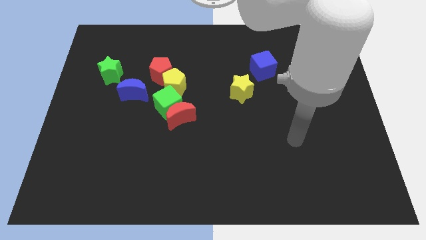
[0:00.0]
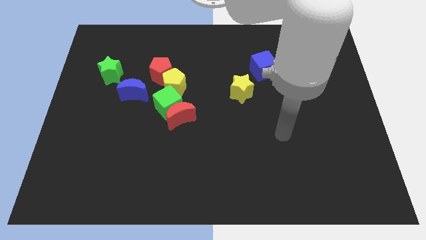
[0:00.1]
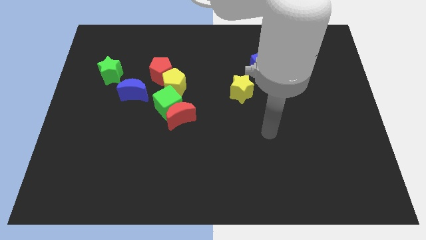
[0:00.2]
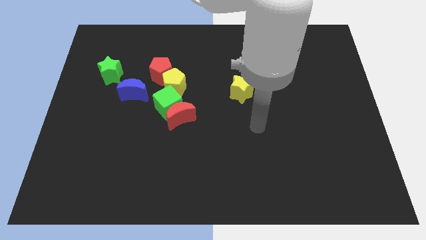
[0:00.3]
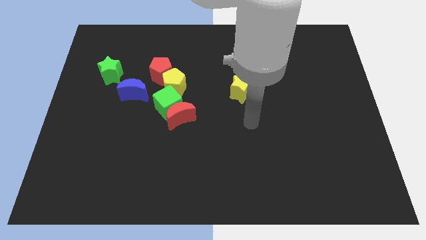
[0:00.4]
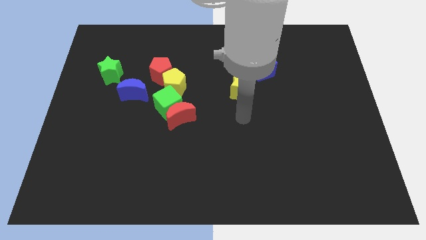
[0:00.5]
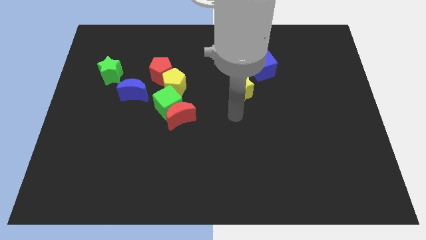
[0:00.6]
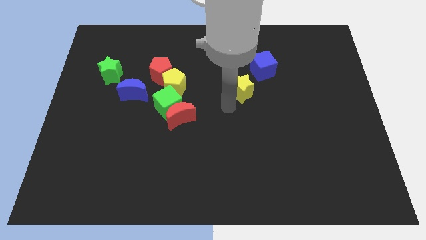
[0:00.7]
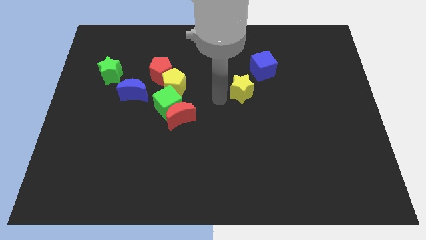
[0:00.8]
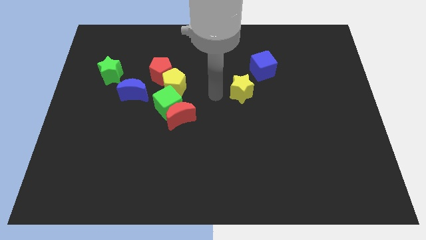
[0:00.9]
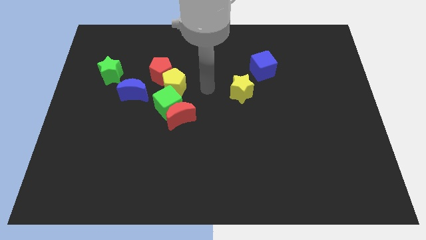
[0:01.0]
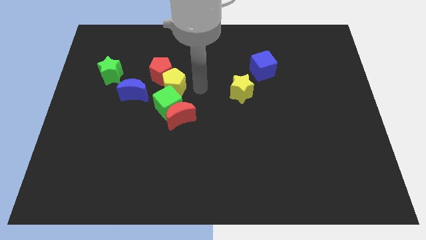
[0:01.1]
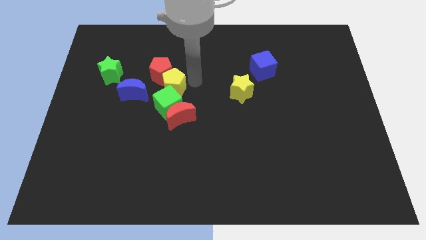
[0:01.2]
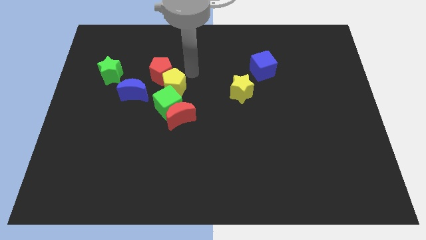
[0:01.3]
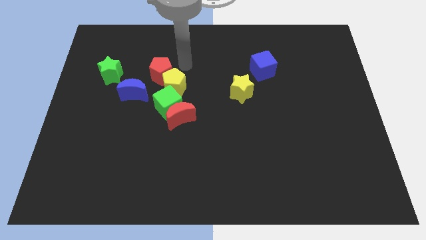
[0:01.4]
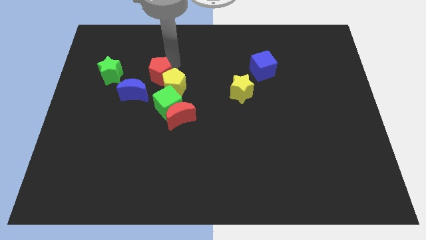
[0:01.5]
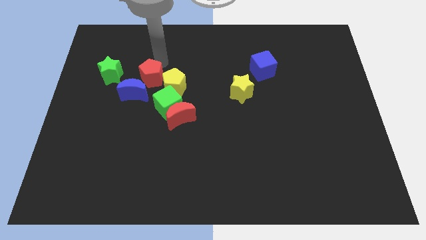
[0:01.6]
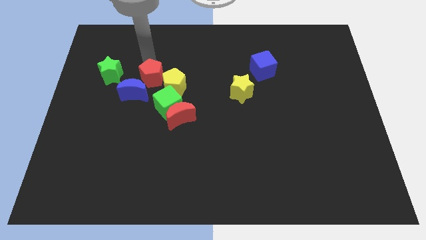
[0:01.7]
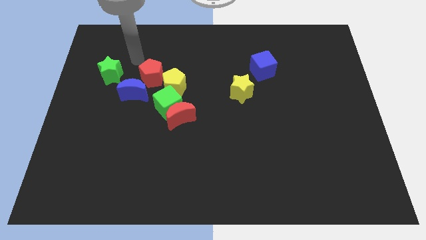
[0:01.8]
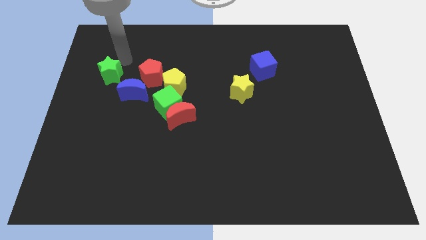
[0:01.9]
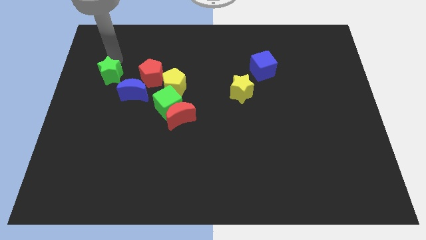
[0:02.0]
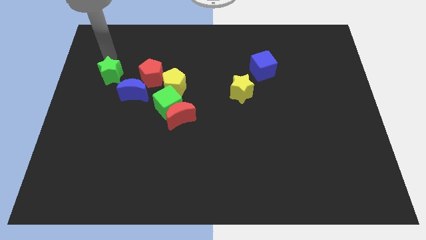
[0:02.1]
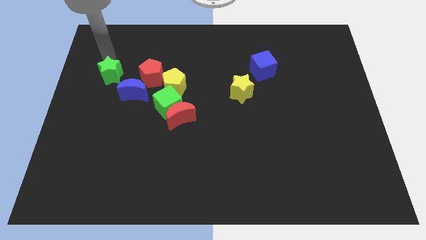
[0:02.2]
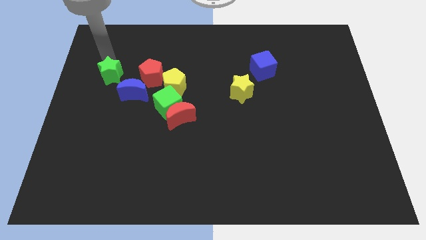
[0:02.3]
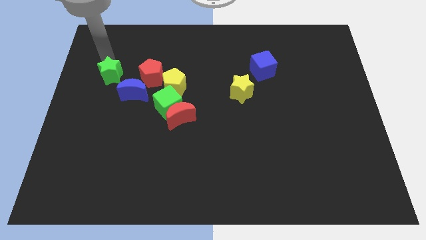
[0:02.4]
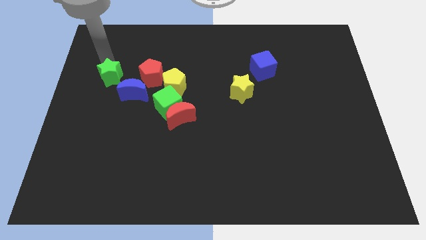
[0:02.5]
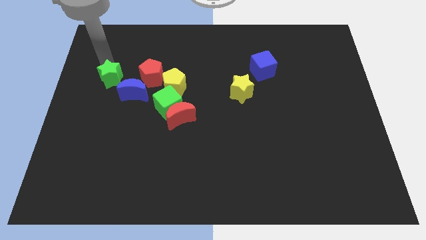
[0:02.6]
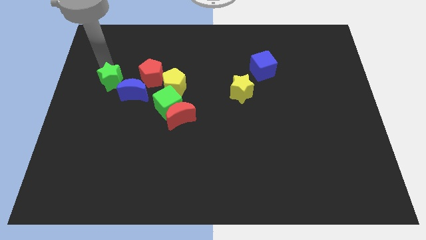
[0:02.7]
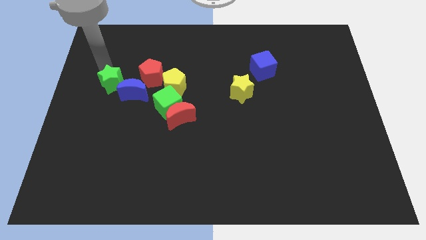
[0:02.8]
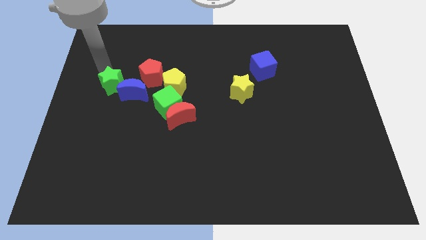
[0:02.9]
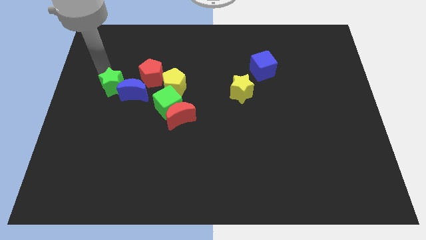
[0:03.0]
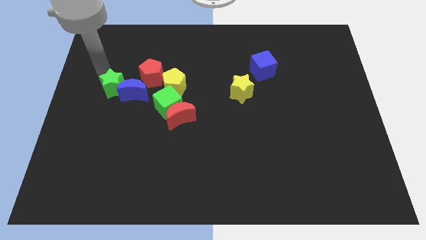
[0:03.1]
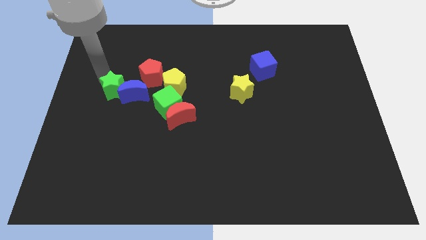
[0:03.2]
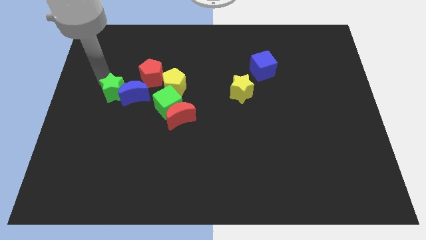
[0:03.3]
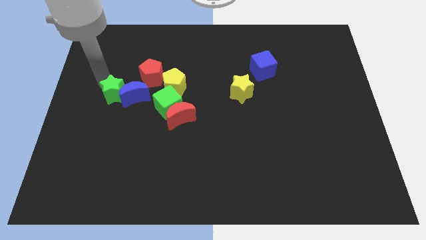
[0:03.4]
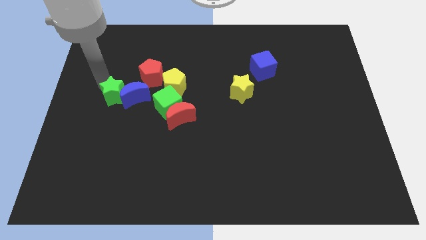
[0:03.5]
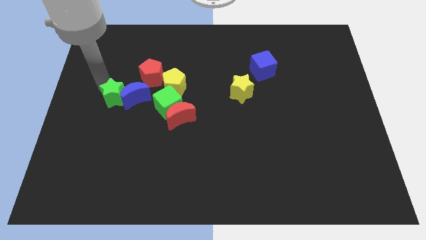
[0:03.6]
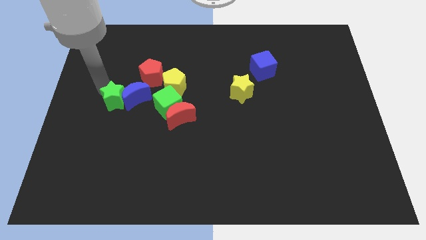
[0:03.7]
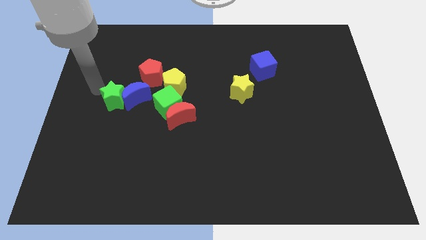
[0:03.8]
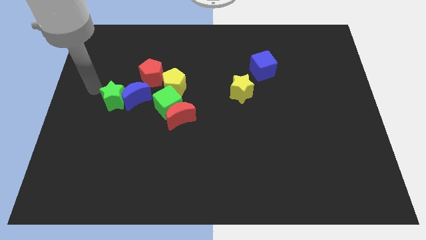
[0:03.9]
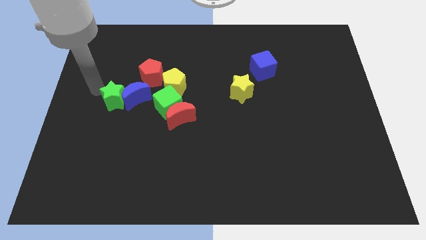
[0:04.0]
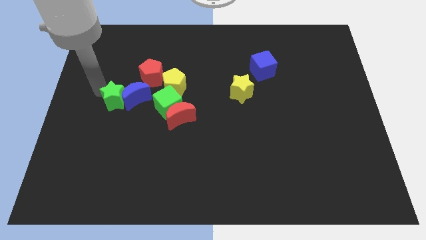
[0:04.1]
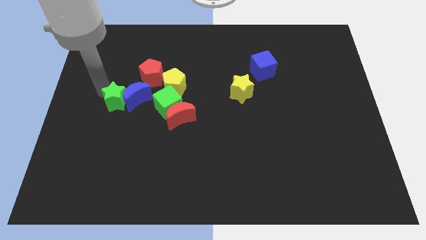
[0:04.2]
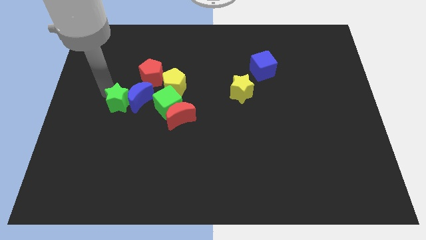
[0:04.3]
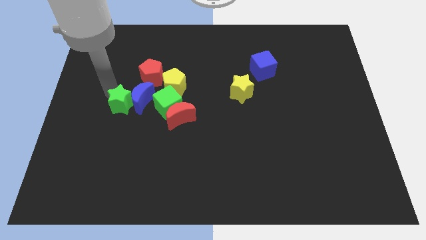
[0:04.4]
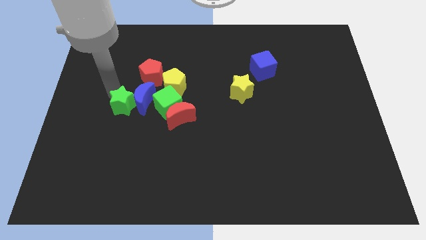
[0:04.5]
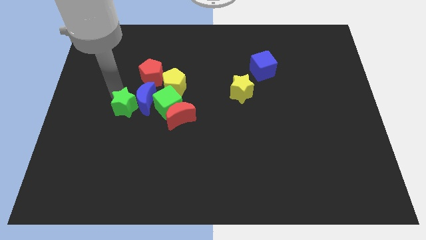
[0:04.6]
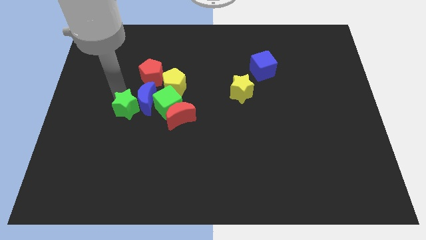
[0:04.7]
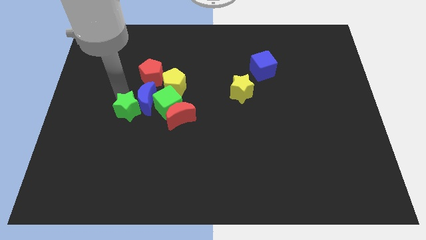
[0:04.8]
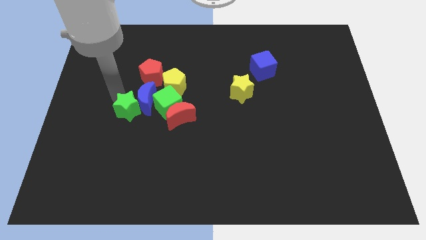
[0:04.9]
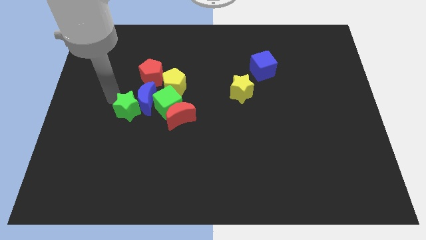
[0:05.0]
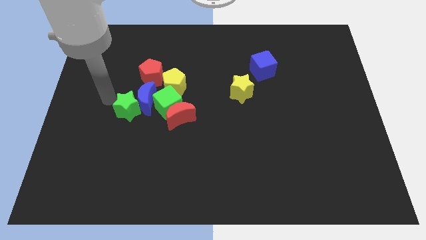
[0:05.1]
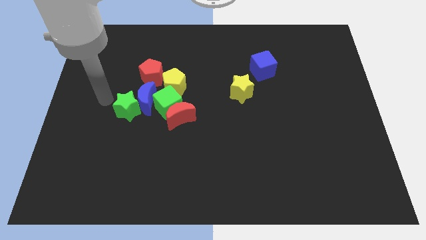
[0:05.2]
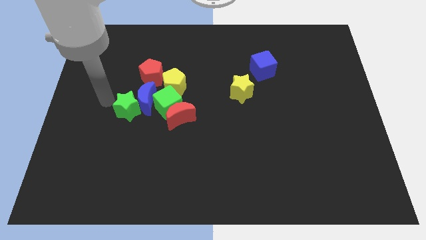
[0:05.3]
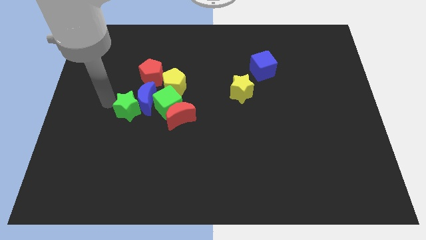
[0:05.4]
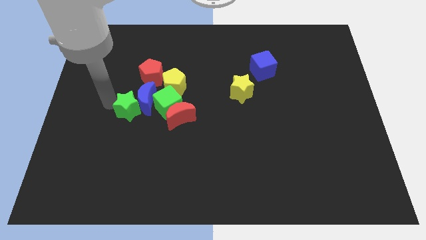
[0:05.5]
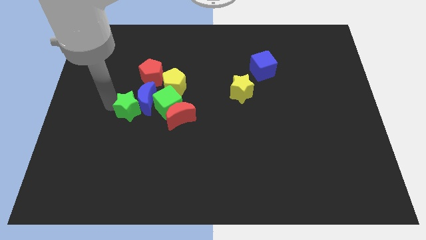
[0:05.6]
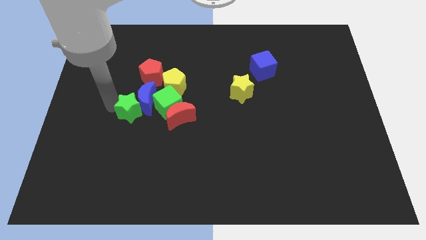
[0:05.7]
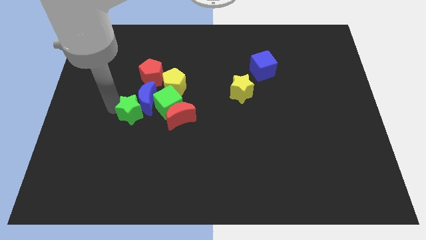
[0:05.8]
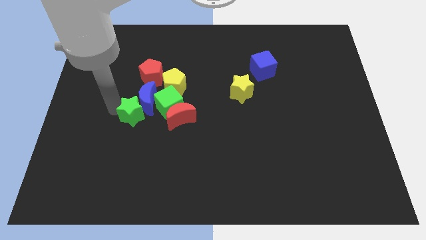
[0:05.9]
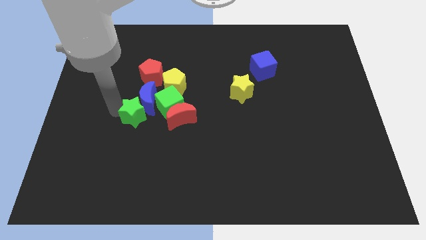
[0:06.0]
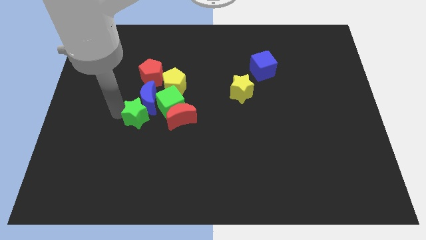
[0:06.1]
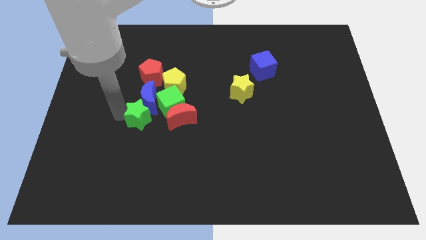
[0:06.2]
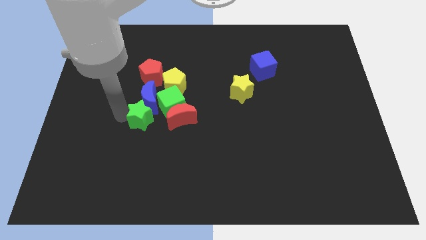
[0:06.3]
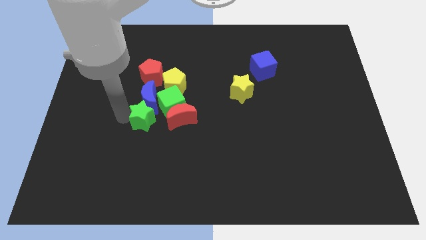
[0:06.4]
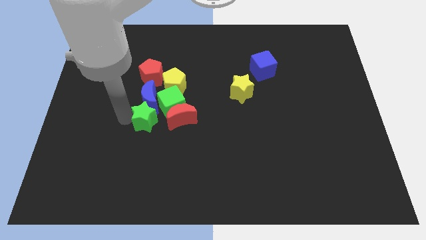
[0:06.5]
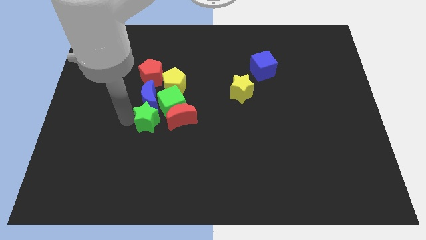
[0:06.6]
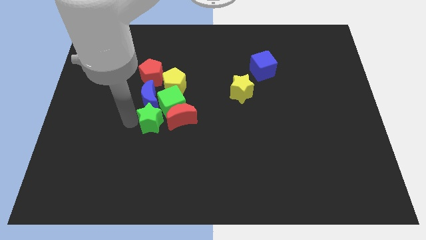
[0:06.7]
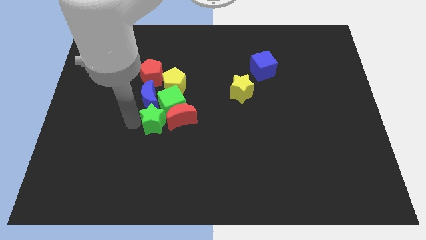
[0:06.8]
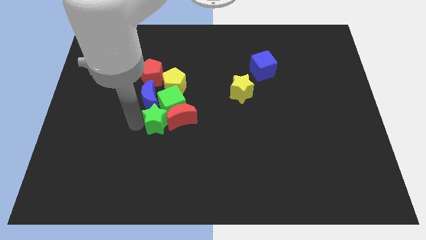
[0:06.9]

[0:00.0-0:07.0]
push the green star close to the red moon
